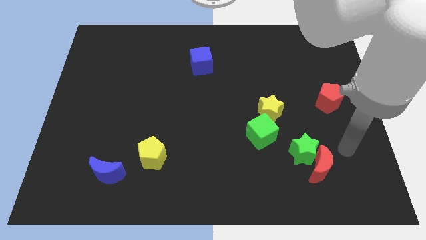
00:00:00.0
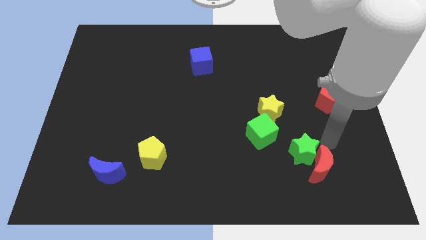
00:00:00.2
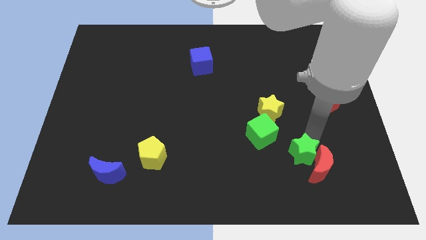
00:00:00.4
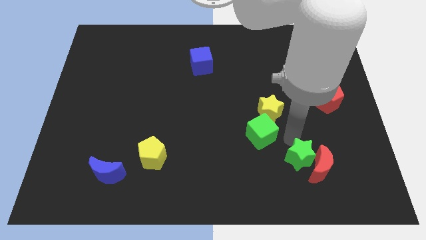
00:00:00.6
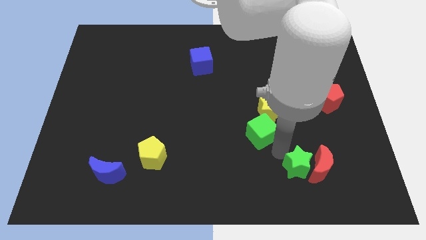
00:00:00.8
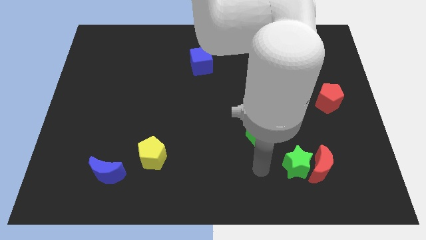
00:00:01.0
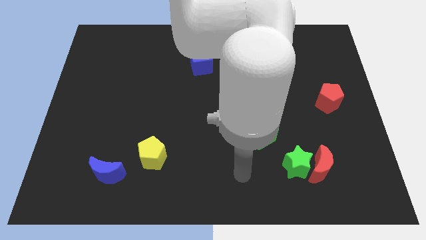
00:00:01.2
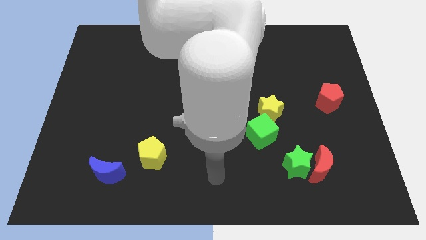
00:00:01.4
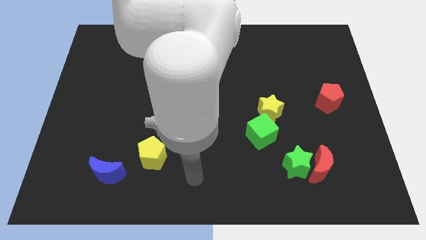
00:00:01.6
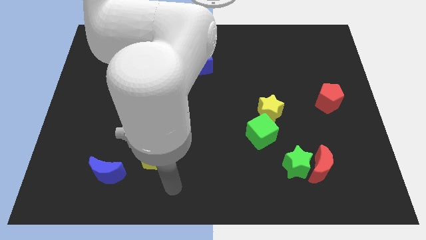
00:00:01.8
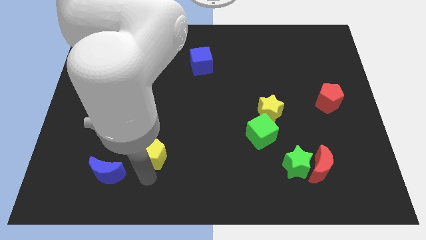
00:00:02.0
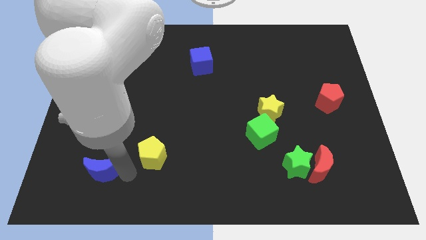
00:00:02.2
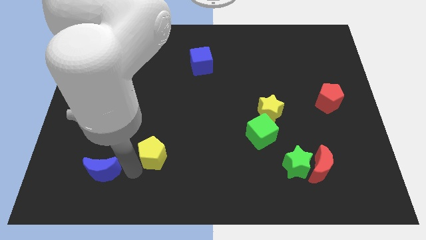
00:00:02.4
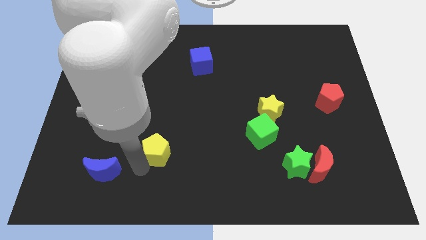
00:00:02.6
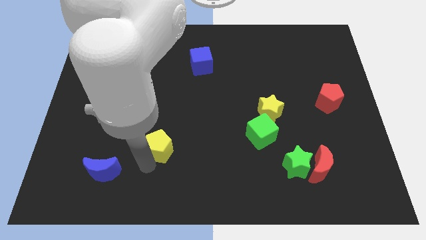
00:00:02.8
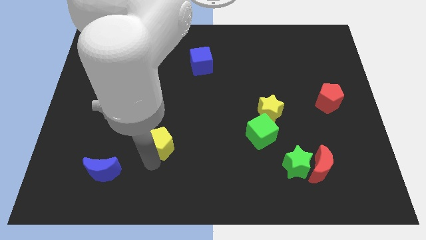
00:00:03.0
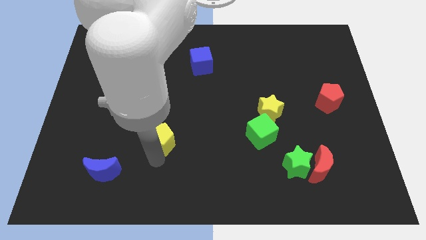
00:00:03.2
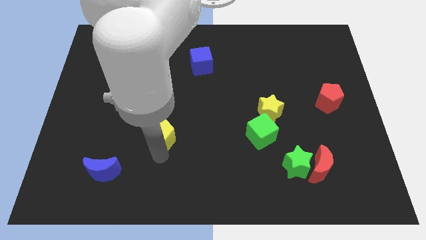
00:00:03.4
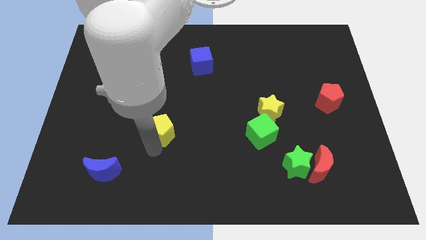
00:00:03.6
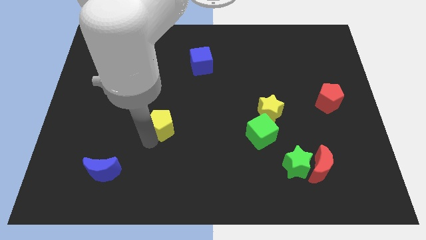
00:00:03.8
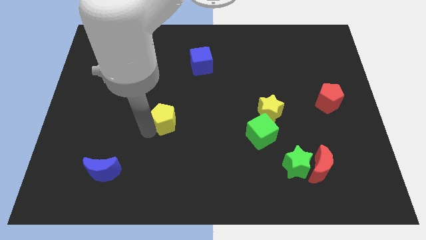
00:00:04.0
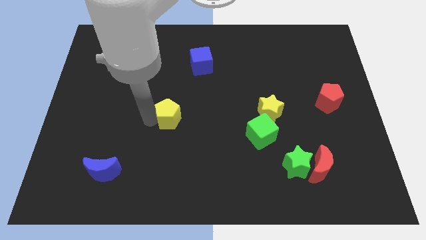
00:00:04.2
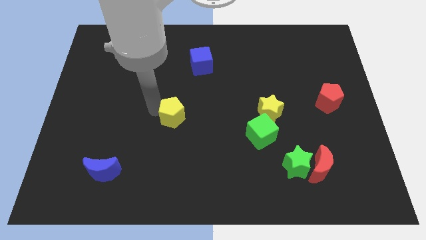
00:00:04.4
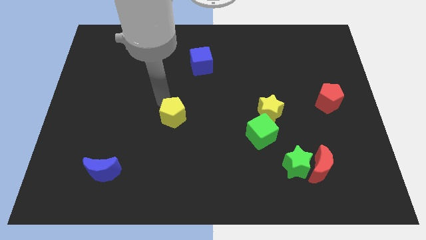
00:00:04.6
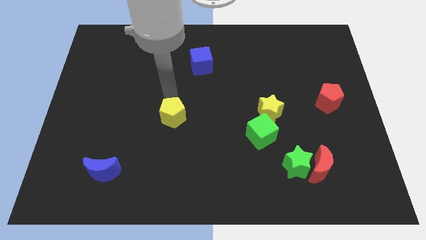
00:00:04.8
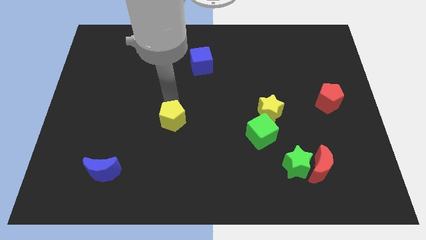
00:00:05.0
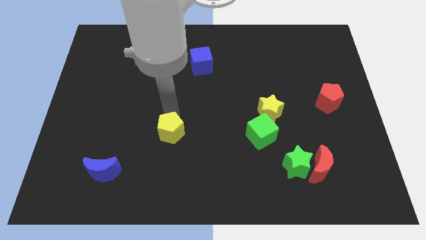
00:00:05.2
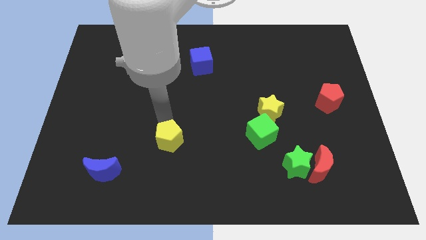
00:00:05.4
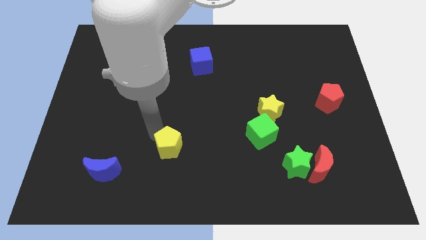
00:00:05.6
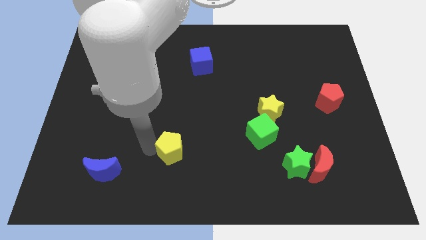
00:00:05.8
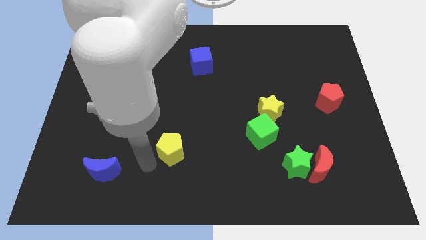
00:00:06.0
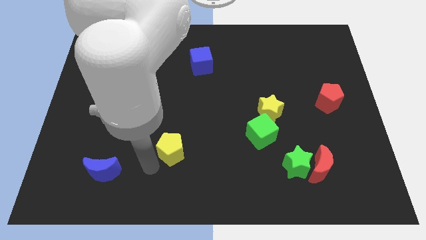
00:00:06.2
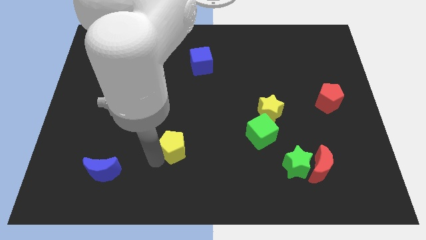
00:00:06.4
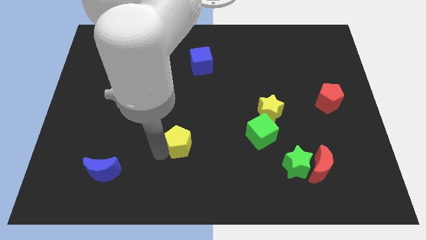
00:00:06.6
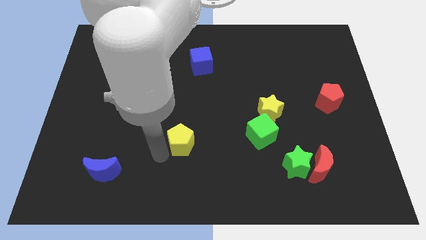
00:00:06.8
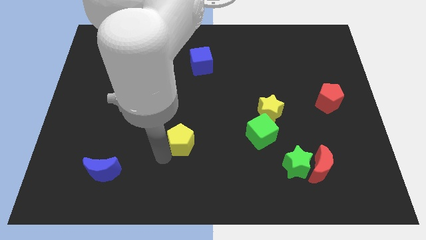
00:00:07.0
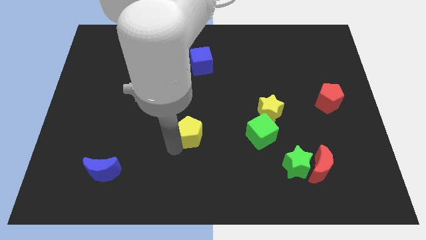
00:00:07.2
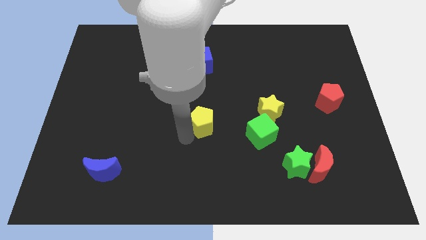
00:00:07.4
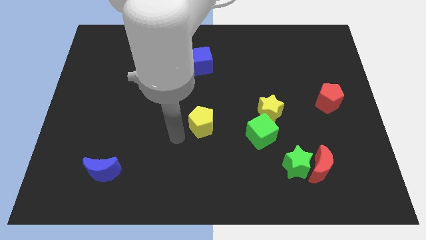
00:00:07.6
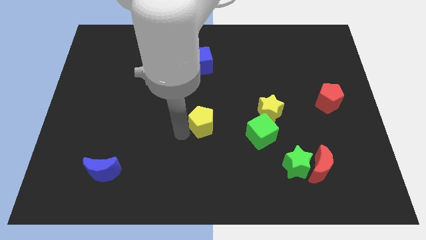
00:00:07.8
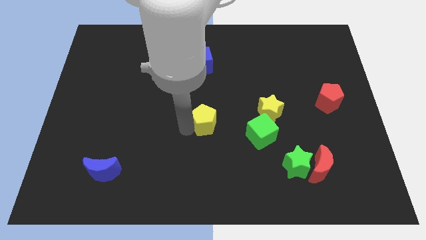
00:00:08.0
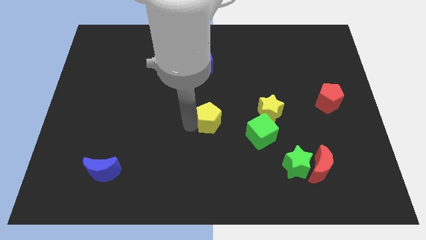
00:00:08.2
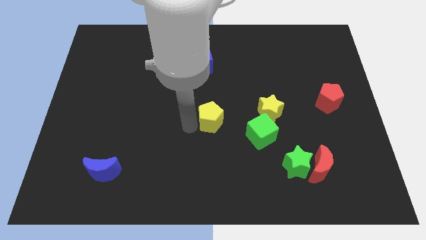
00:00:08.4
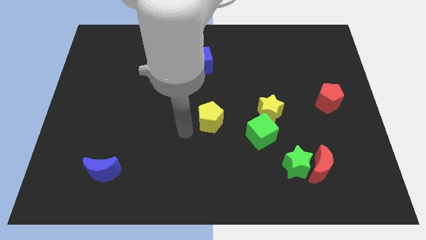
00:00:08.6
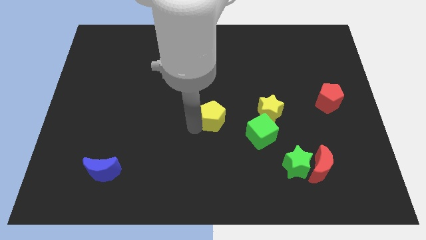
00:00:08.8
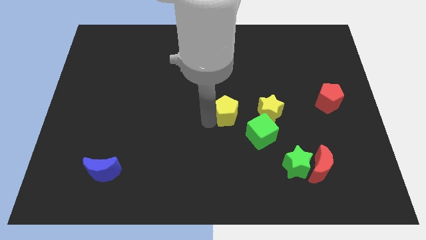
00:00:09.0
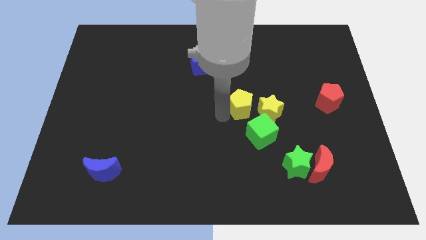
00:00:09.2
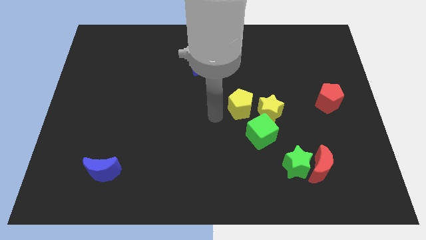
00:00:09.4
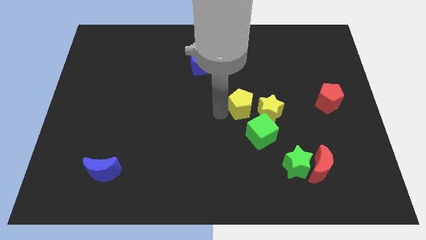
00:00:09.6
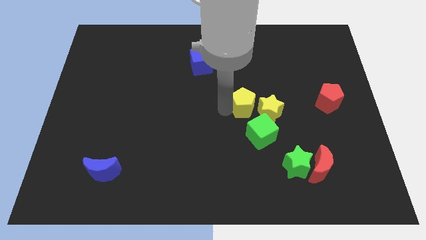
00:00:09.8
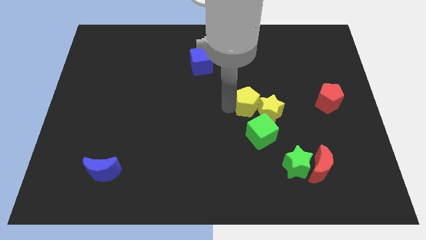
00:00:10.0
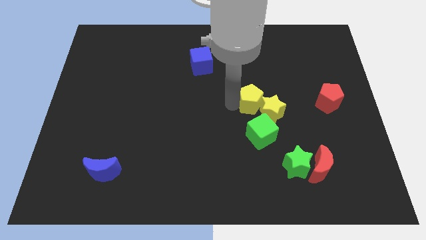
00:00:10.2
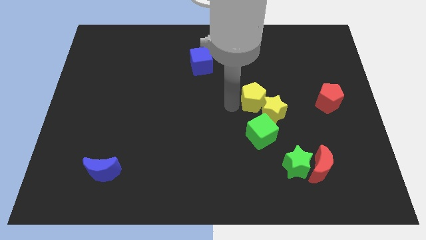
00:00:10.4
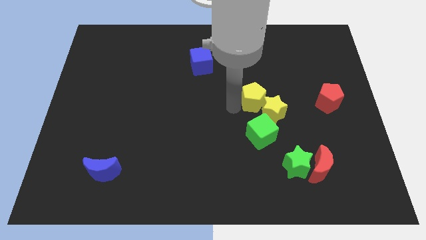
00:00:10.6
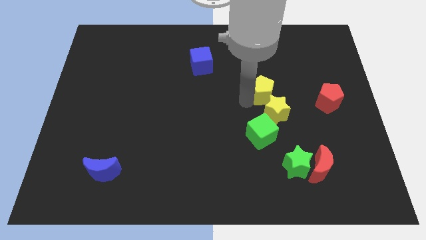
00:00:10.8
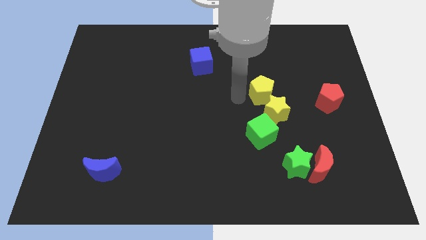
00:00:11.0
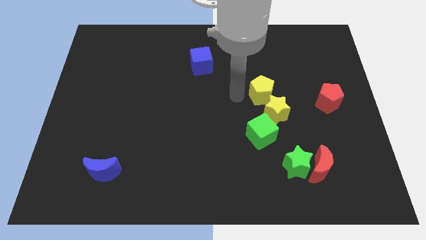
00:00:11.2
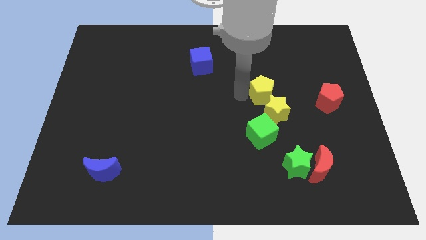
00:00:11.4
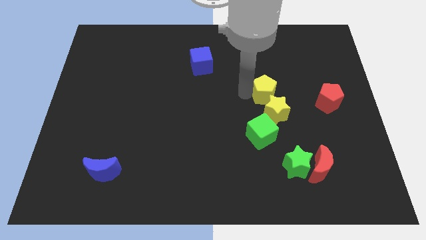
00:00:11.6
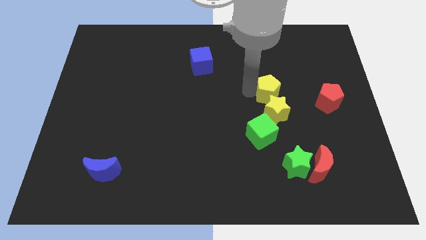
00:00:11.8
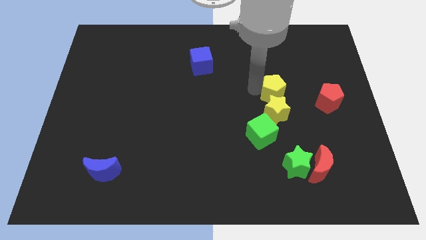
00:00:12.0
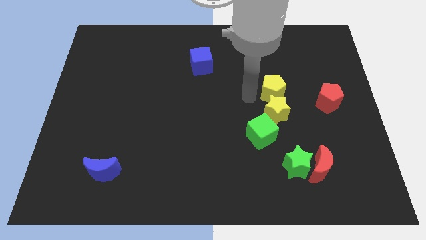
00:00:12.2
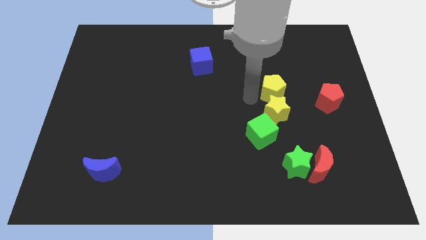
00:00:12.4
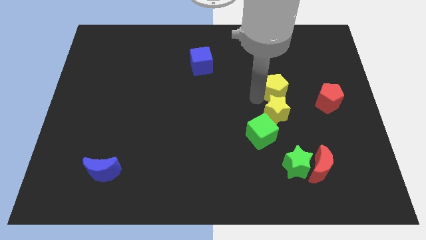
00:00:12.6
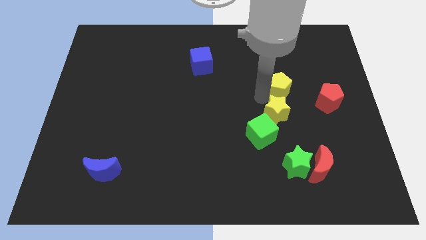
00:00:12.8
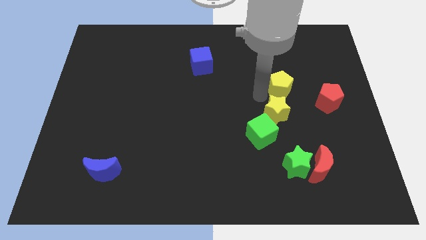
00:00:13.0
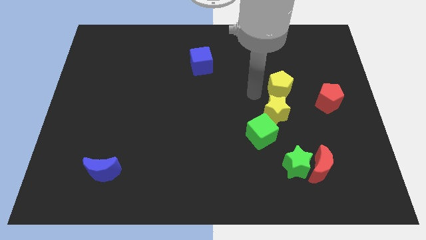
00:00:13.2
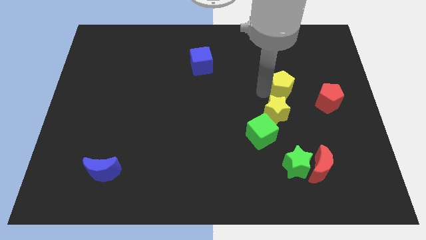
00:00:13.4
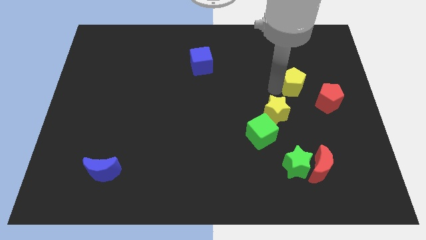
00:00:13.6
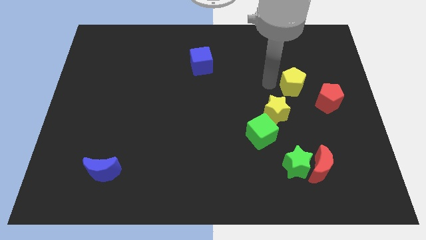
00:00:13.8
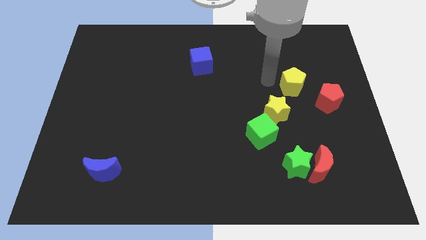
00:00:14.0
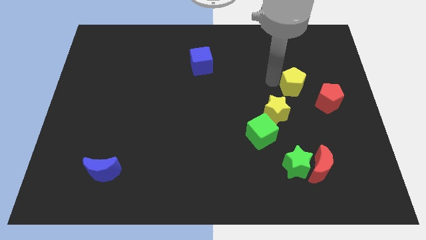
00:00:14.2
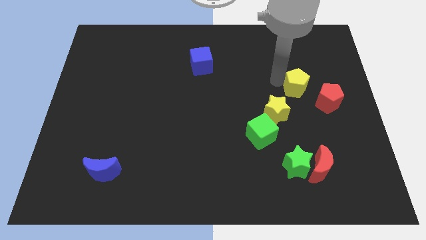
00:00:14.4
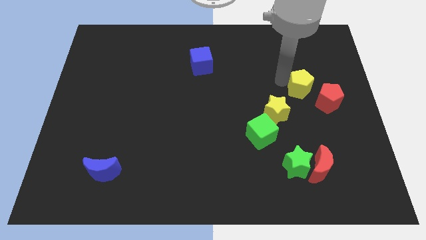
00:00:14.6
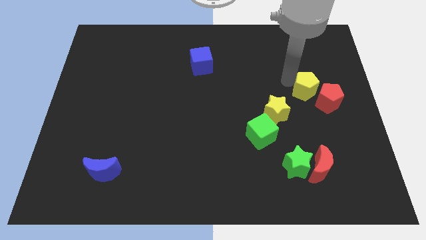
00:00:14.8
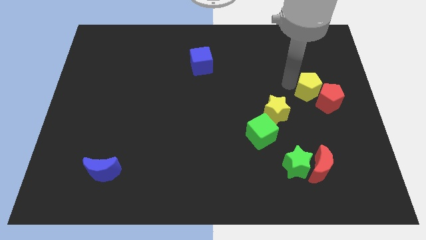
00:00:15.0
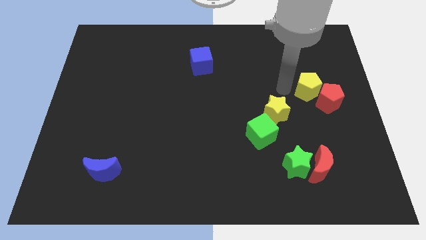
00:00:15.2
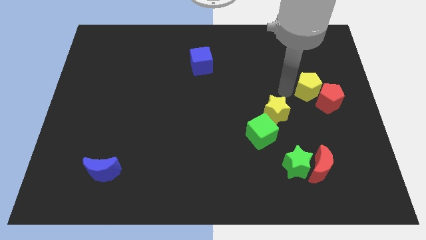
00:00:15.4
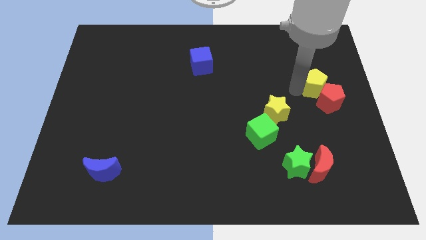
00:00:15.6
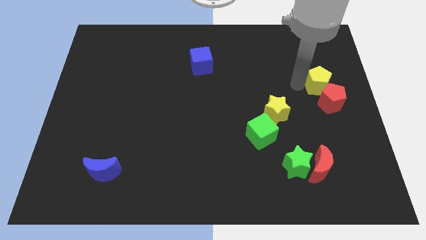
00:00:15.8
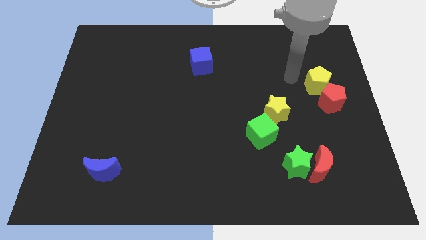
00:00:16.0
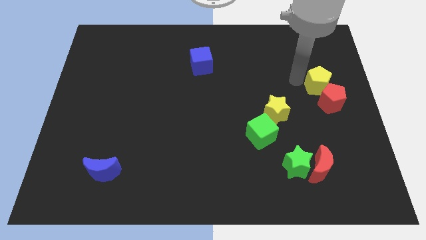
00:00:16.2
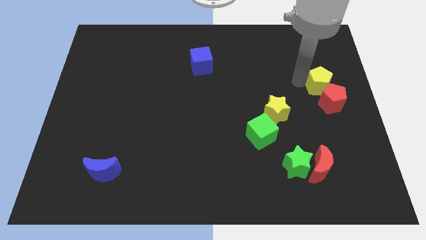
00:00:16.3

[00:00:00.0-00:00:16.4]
slide the yellow pentagon to the right side of the board
